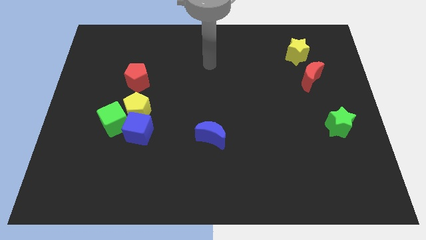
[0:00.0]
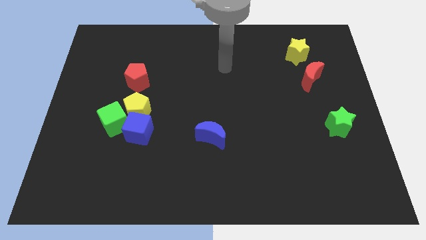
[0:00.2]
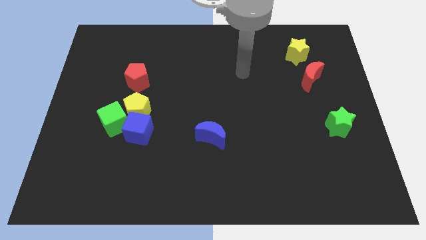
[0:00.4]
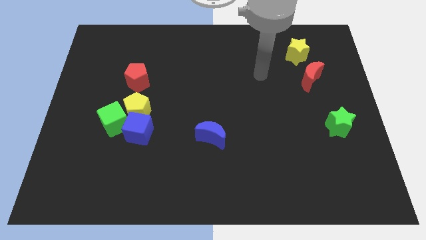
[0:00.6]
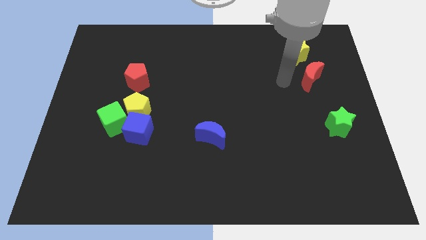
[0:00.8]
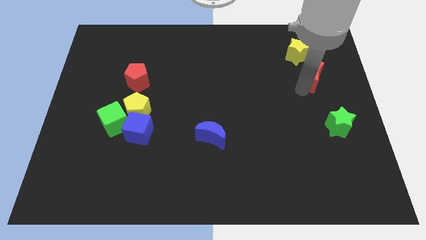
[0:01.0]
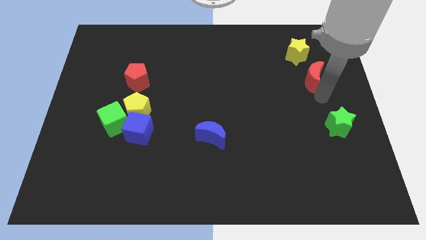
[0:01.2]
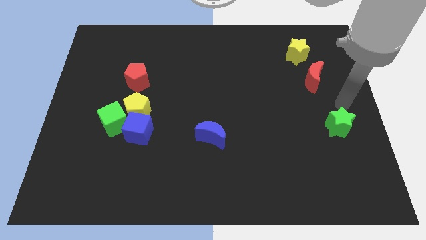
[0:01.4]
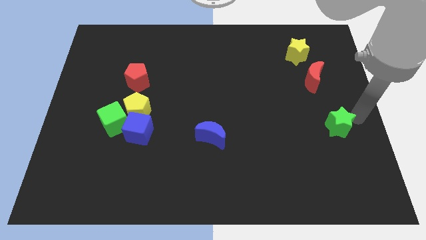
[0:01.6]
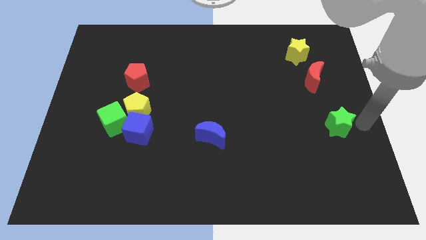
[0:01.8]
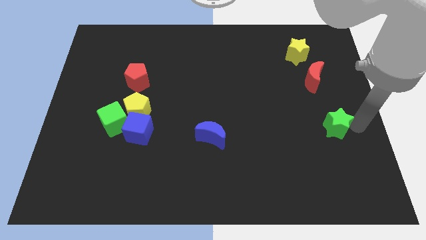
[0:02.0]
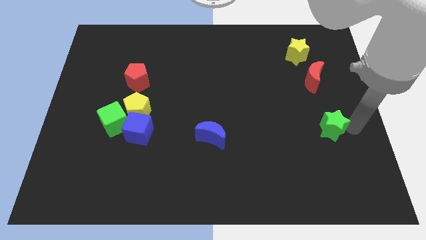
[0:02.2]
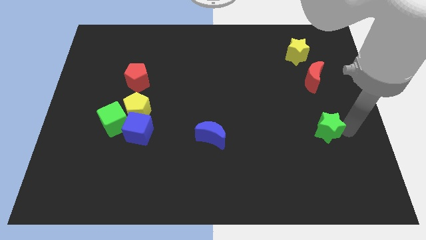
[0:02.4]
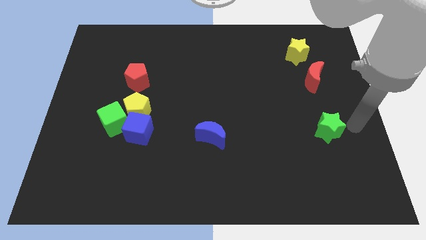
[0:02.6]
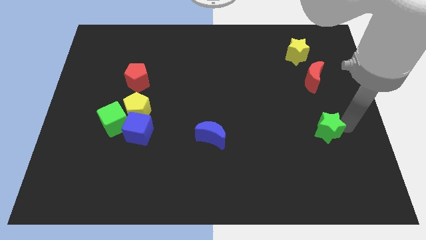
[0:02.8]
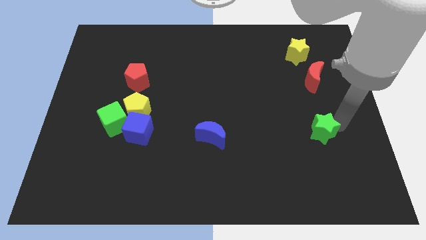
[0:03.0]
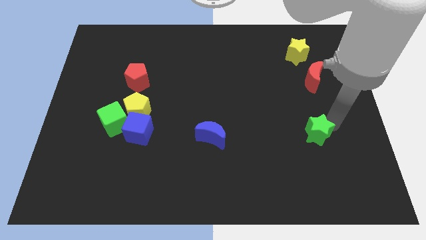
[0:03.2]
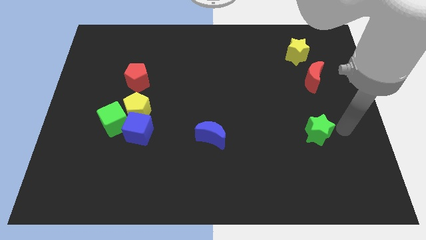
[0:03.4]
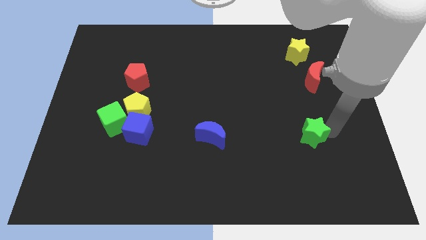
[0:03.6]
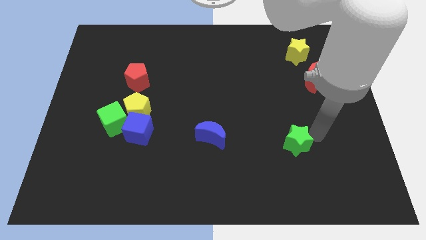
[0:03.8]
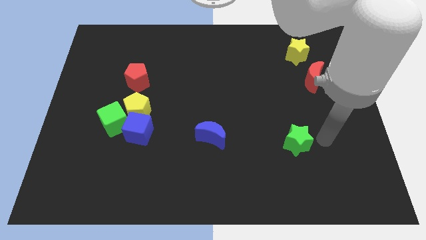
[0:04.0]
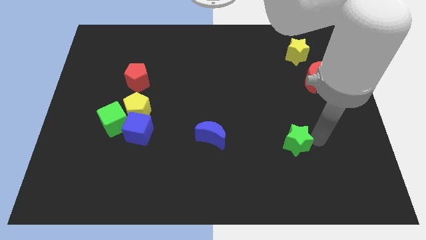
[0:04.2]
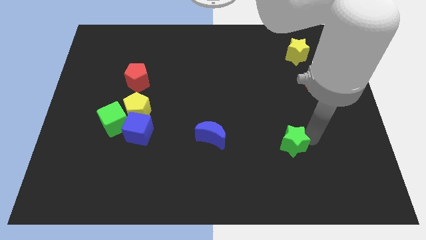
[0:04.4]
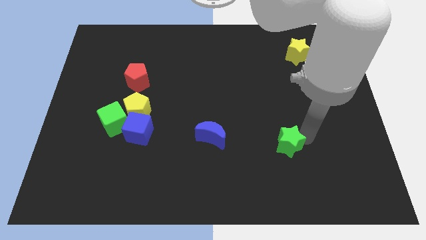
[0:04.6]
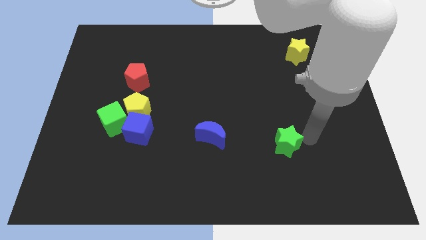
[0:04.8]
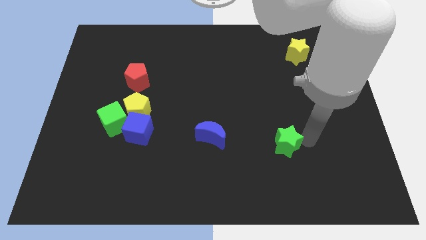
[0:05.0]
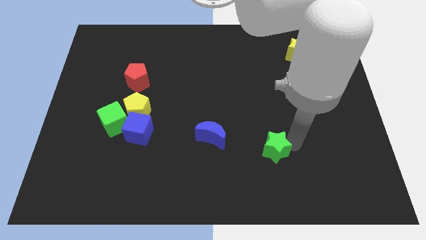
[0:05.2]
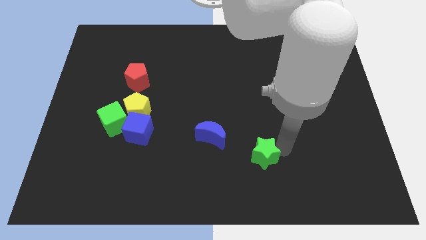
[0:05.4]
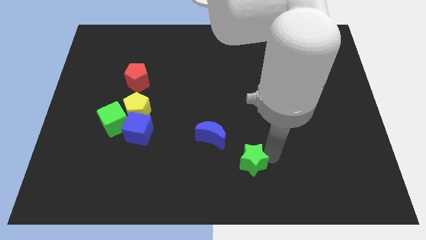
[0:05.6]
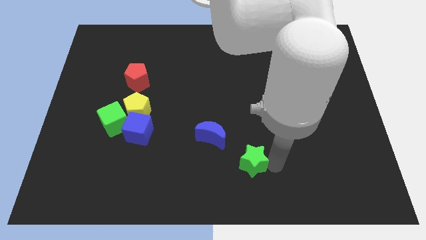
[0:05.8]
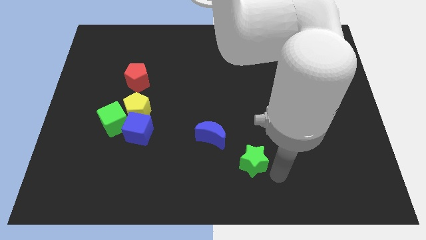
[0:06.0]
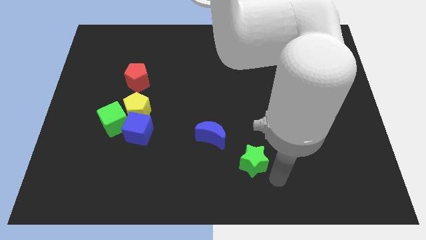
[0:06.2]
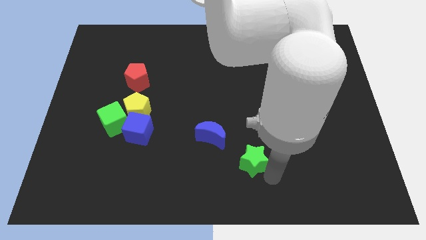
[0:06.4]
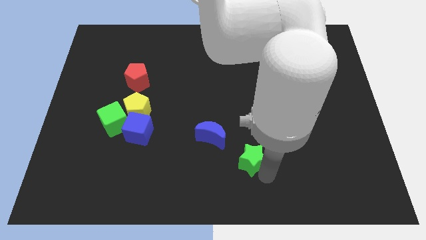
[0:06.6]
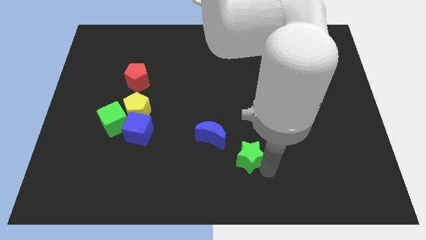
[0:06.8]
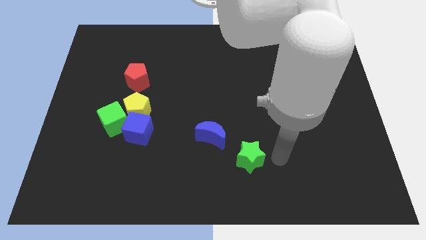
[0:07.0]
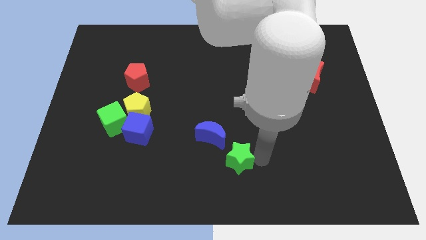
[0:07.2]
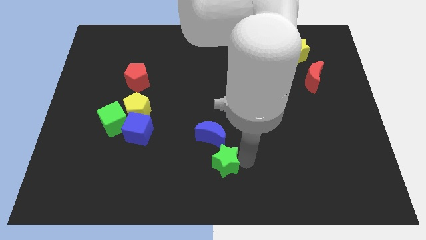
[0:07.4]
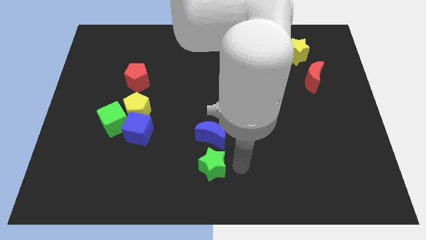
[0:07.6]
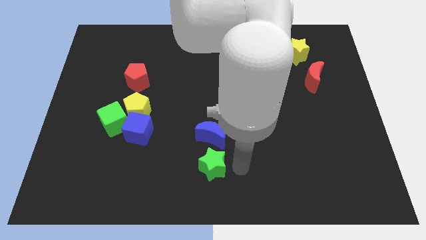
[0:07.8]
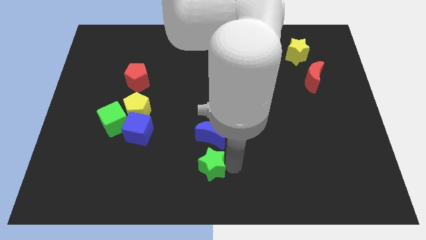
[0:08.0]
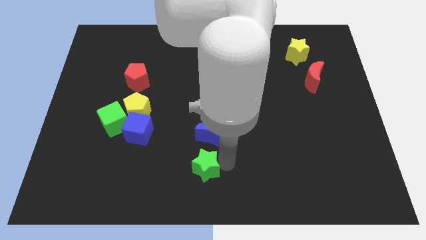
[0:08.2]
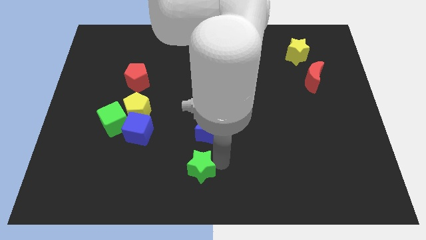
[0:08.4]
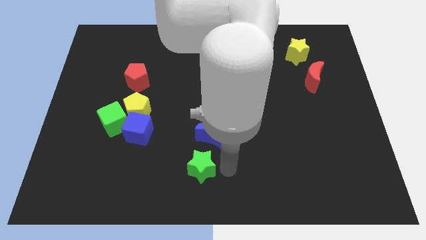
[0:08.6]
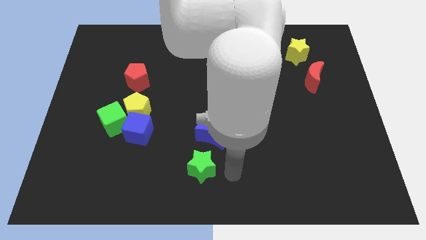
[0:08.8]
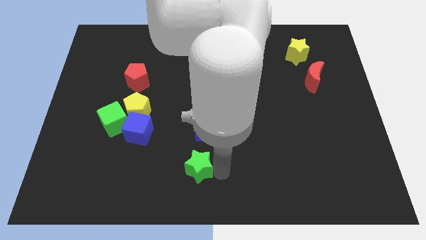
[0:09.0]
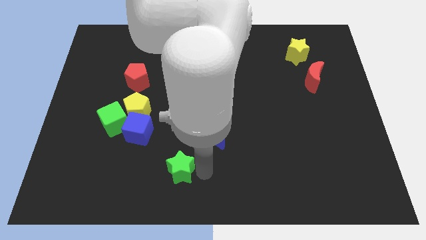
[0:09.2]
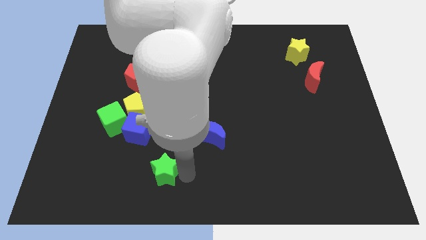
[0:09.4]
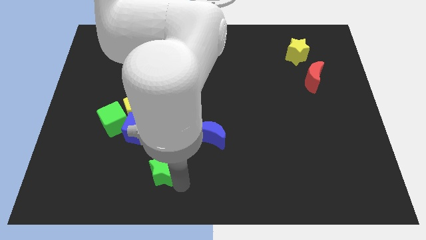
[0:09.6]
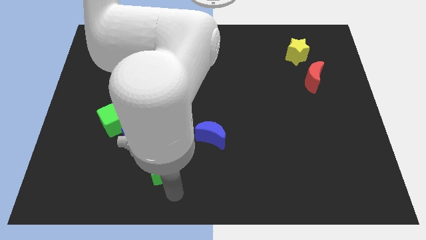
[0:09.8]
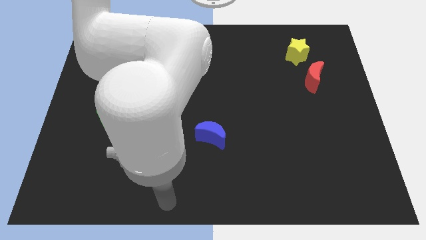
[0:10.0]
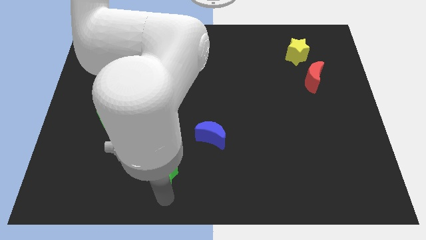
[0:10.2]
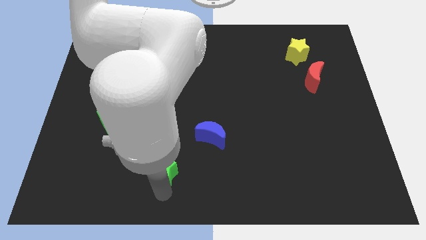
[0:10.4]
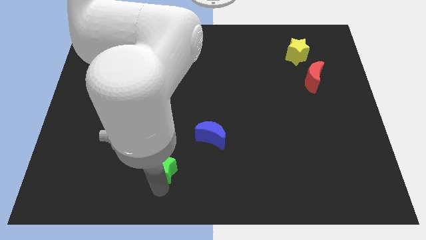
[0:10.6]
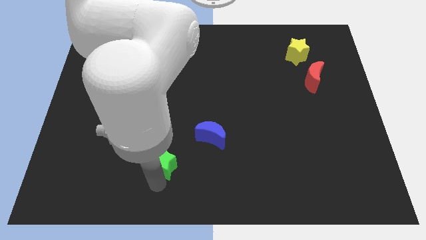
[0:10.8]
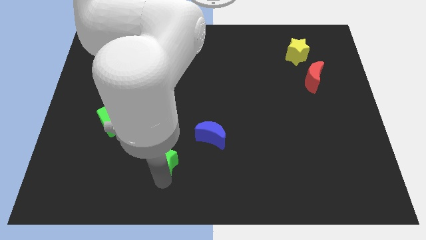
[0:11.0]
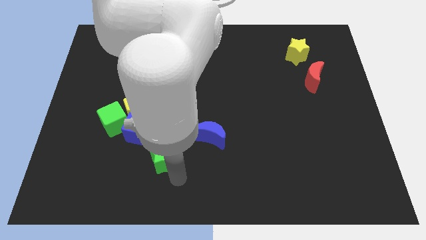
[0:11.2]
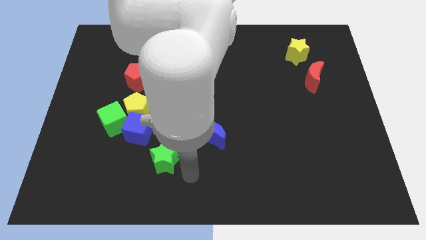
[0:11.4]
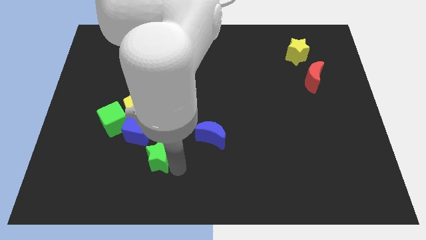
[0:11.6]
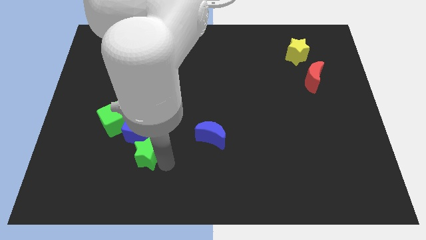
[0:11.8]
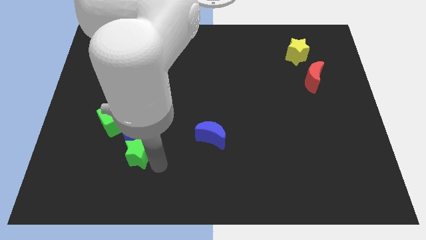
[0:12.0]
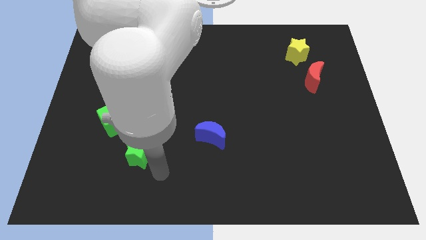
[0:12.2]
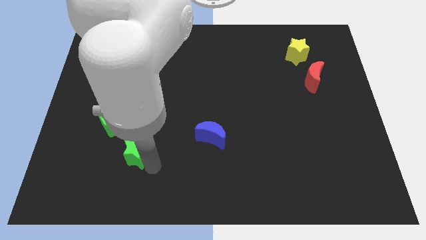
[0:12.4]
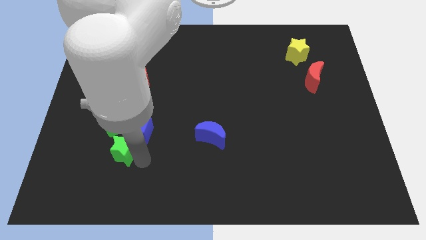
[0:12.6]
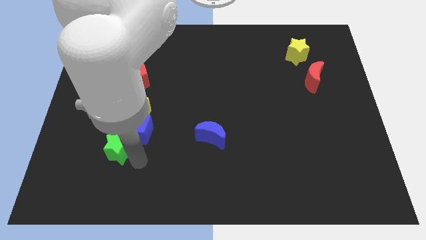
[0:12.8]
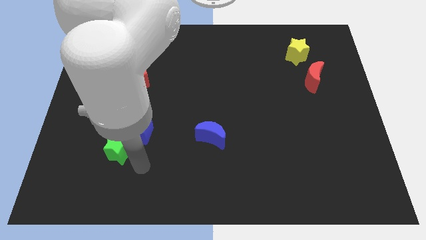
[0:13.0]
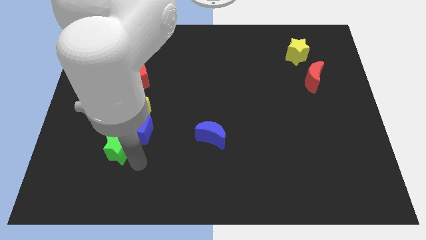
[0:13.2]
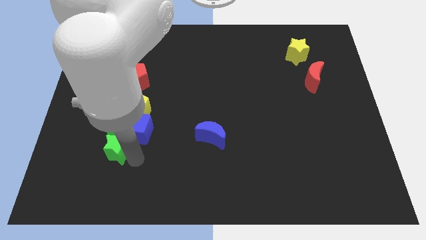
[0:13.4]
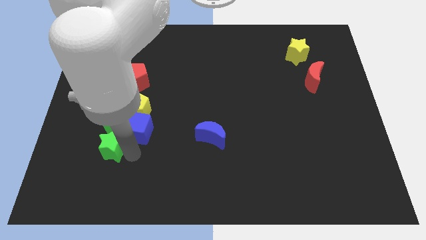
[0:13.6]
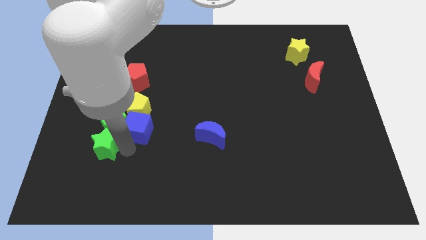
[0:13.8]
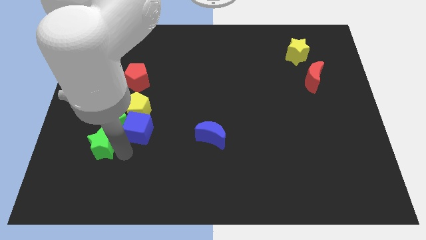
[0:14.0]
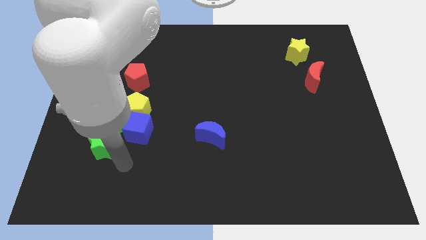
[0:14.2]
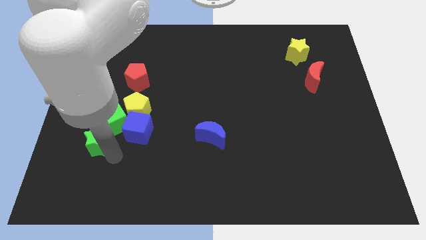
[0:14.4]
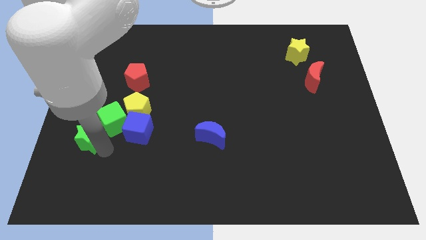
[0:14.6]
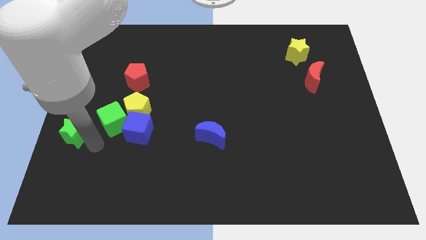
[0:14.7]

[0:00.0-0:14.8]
slide the green star to the left side of the board
